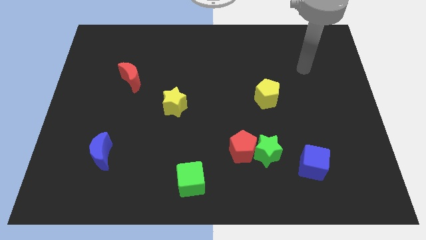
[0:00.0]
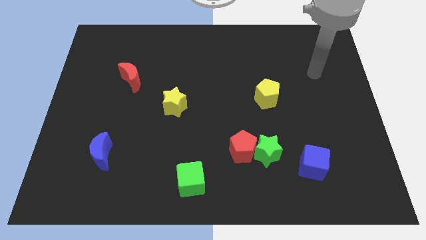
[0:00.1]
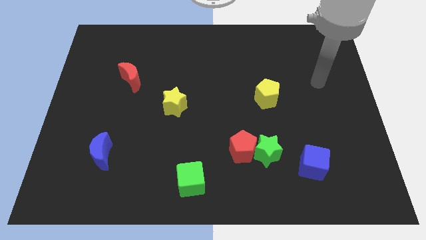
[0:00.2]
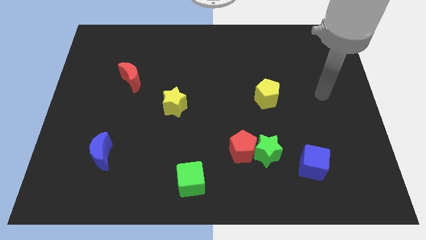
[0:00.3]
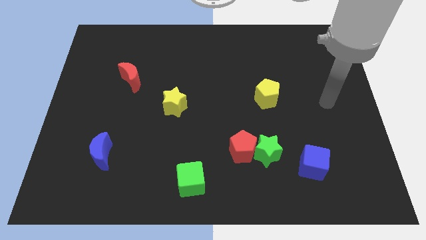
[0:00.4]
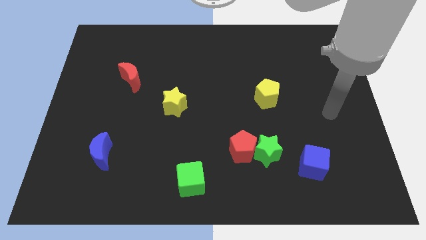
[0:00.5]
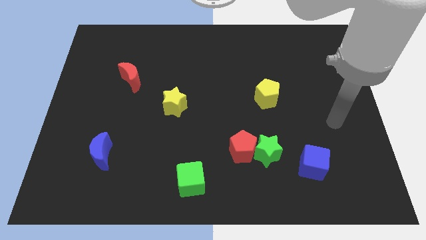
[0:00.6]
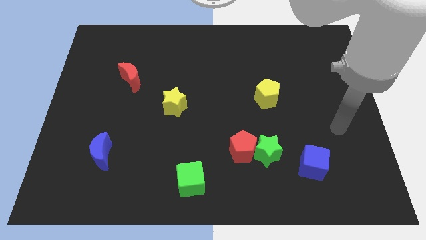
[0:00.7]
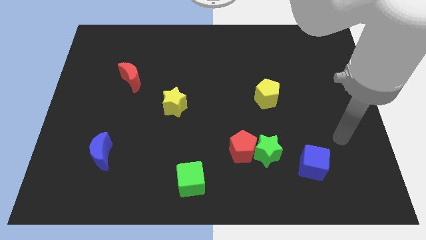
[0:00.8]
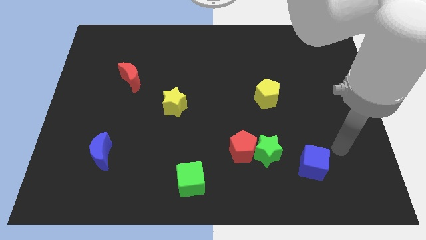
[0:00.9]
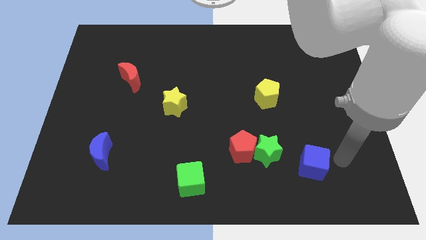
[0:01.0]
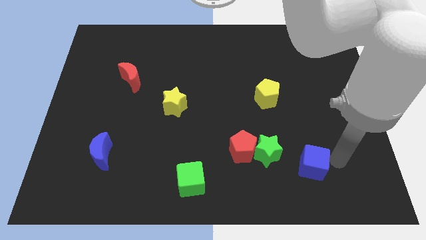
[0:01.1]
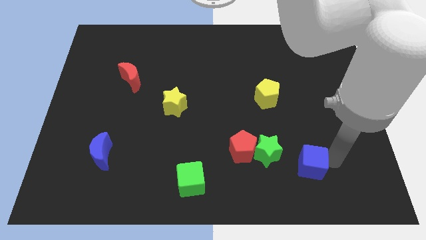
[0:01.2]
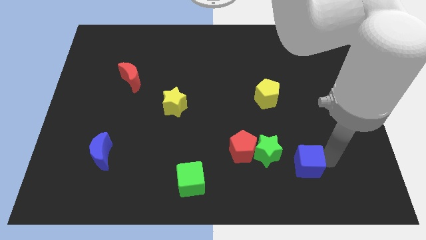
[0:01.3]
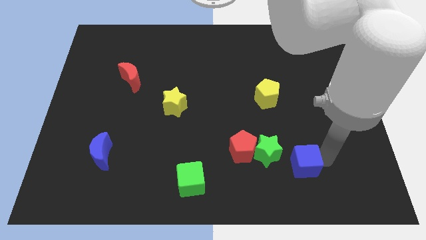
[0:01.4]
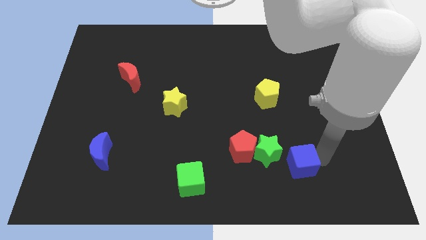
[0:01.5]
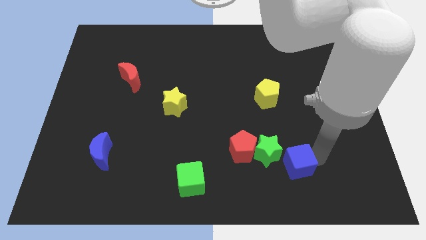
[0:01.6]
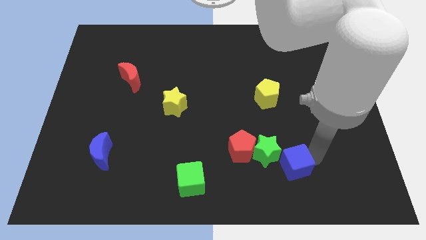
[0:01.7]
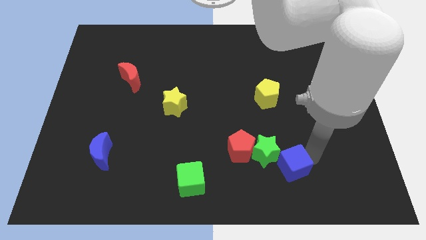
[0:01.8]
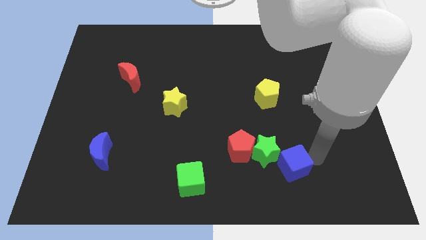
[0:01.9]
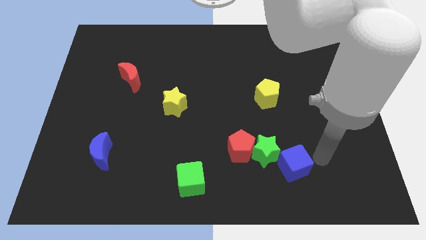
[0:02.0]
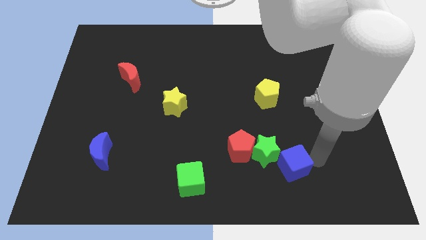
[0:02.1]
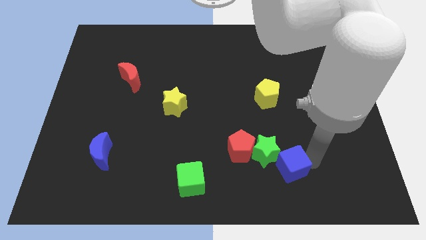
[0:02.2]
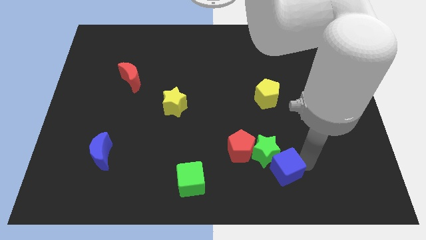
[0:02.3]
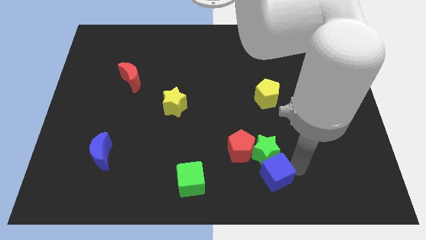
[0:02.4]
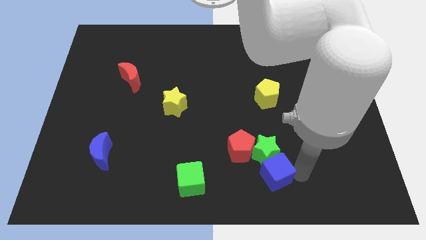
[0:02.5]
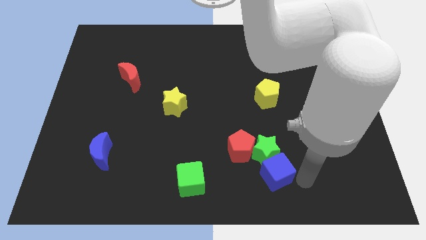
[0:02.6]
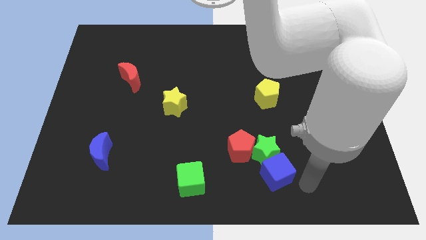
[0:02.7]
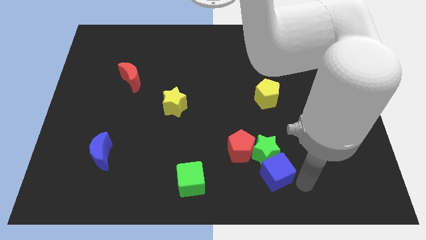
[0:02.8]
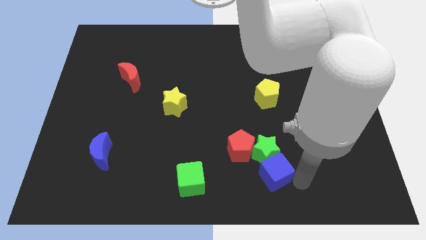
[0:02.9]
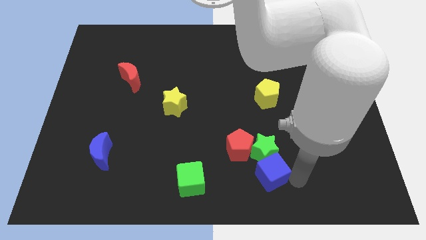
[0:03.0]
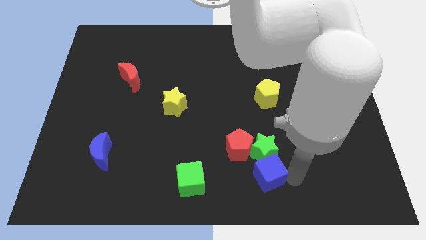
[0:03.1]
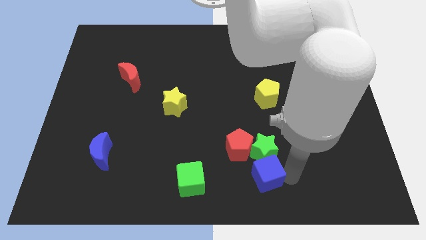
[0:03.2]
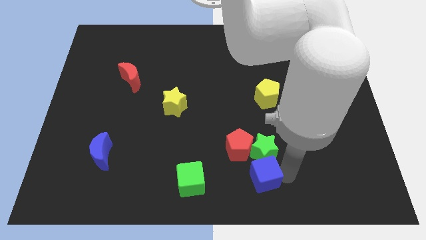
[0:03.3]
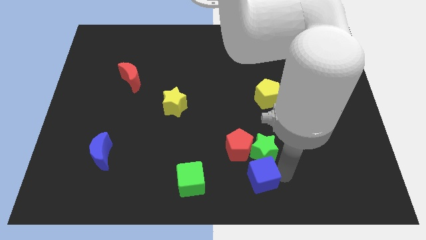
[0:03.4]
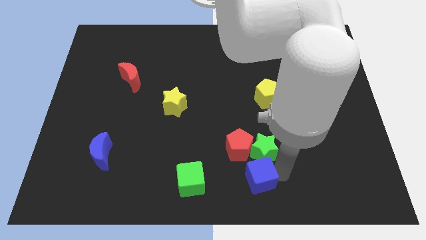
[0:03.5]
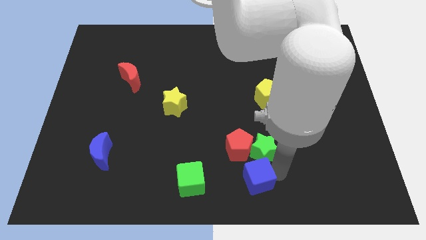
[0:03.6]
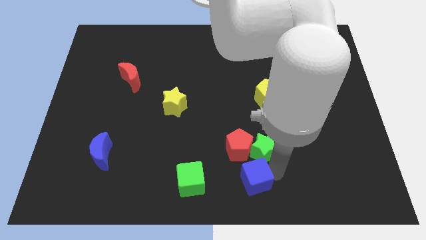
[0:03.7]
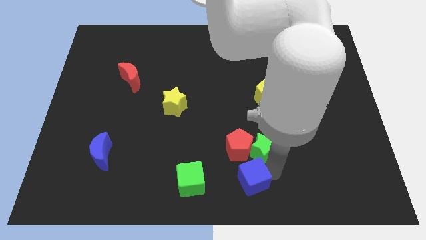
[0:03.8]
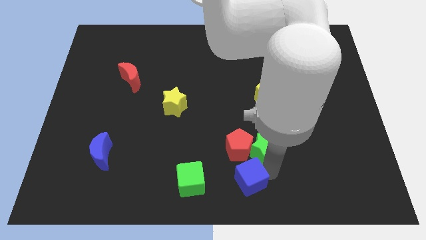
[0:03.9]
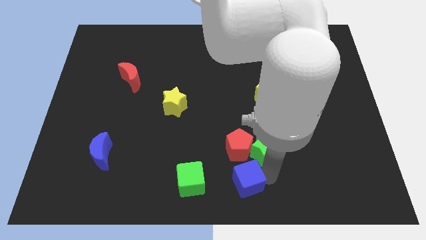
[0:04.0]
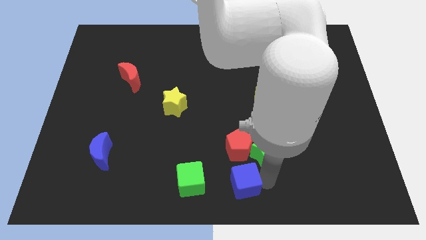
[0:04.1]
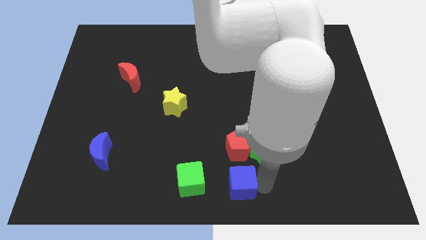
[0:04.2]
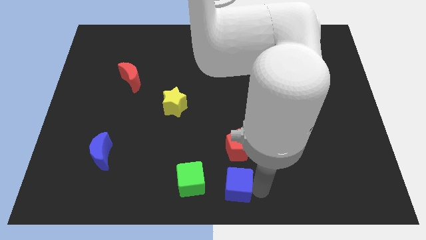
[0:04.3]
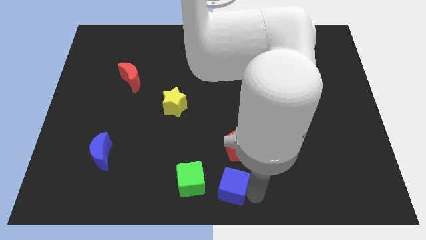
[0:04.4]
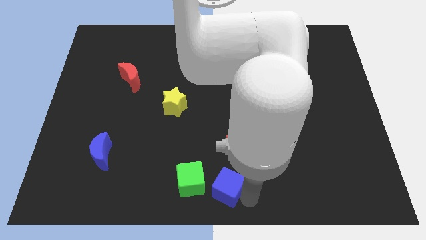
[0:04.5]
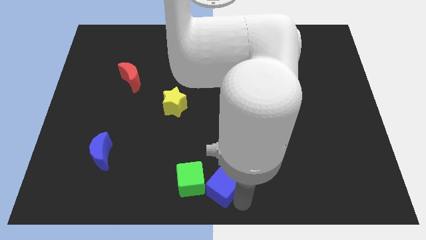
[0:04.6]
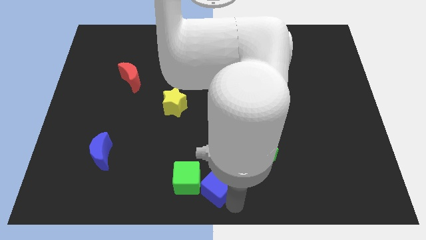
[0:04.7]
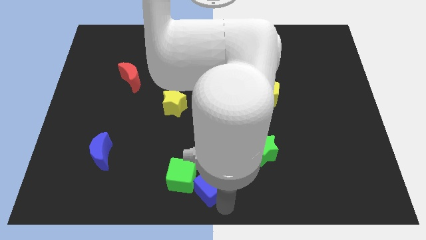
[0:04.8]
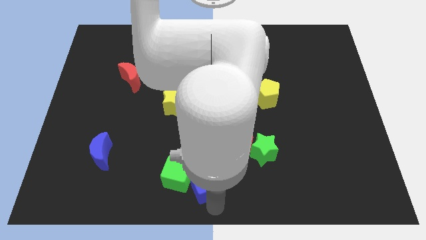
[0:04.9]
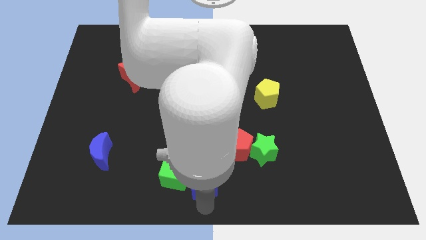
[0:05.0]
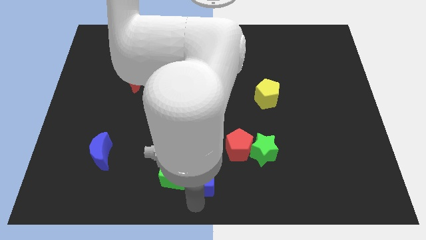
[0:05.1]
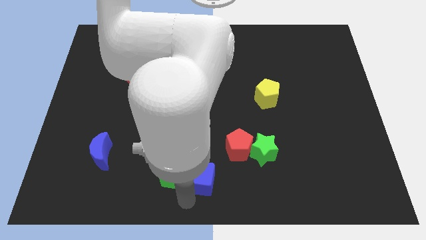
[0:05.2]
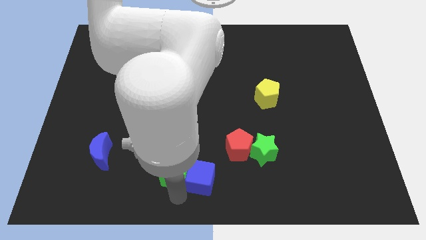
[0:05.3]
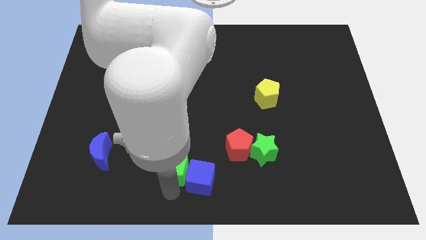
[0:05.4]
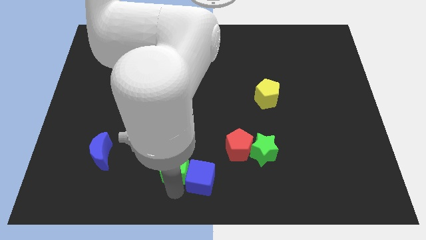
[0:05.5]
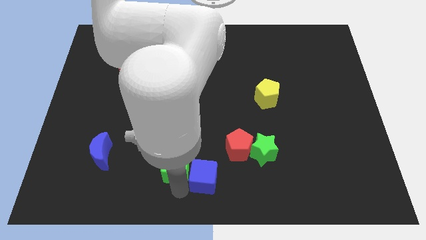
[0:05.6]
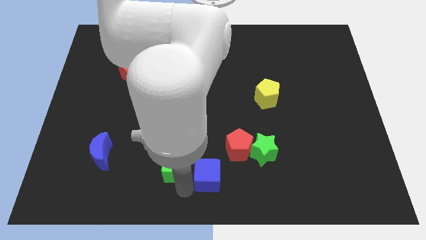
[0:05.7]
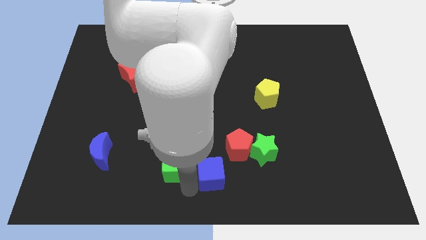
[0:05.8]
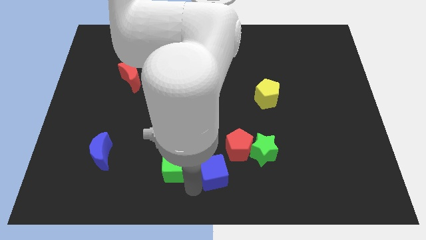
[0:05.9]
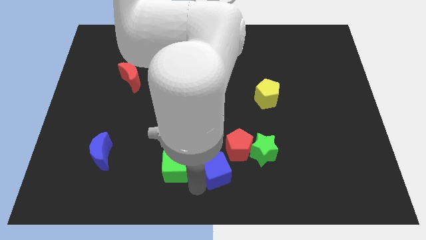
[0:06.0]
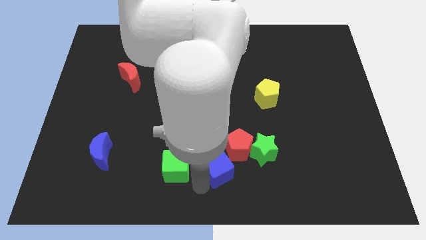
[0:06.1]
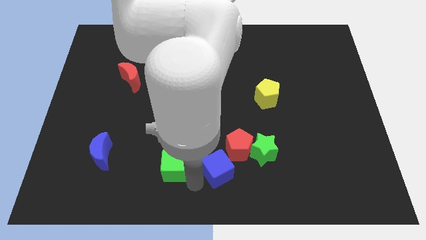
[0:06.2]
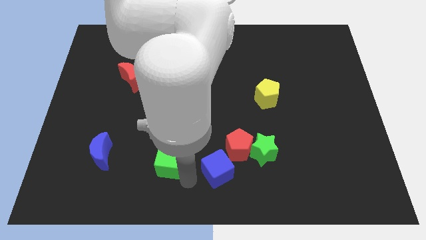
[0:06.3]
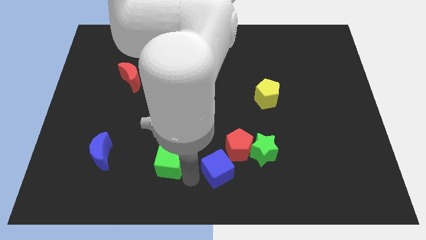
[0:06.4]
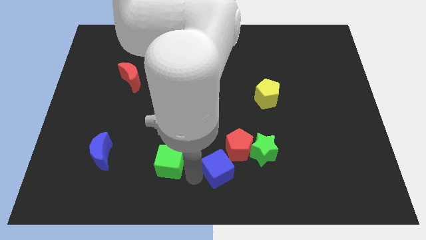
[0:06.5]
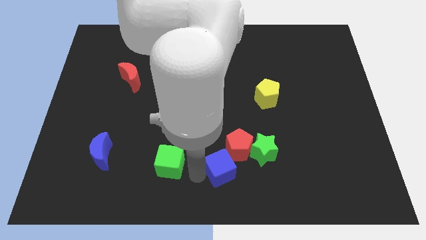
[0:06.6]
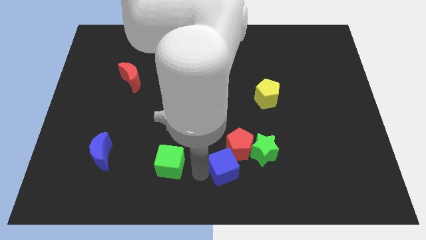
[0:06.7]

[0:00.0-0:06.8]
move the blue cube towards the red pentagon

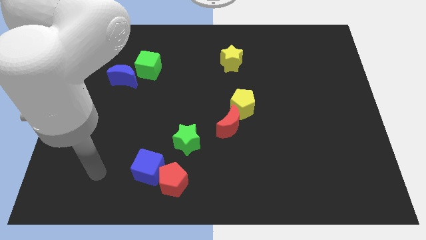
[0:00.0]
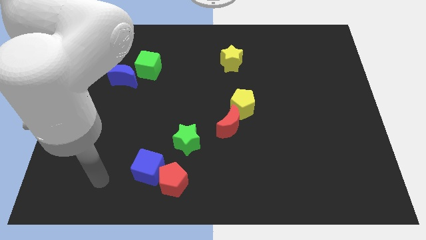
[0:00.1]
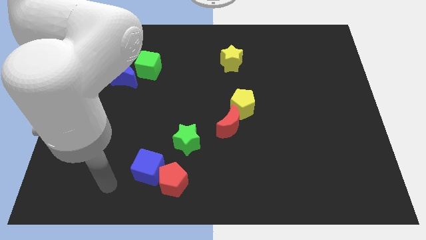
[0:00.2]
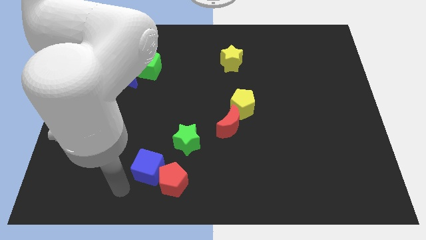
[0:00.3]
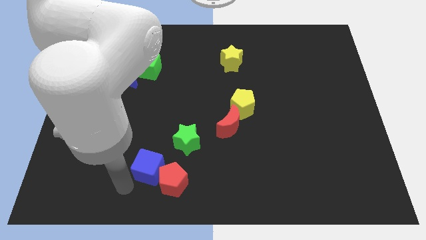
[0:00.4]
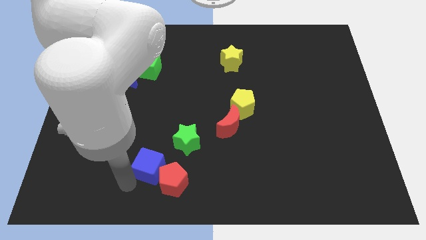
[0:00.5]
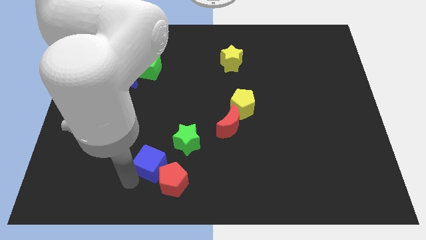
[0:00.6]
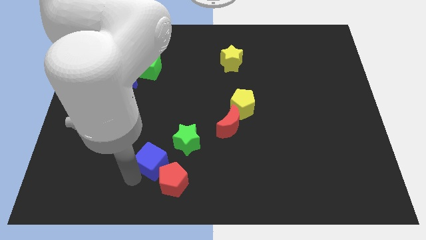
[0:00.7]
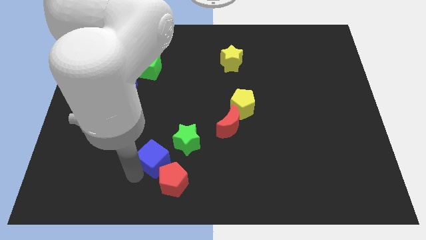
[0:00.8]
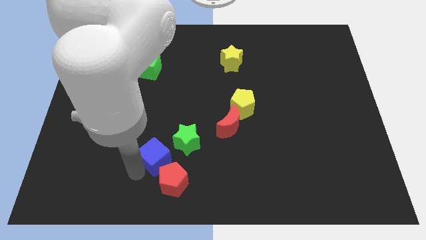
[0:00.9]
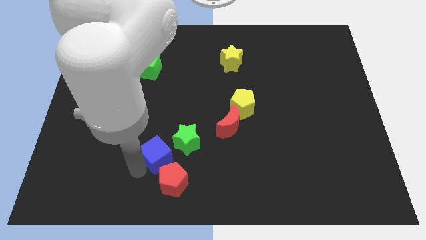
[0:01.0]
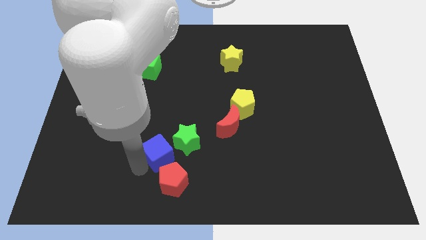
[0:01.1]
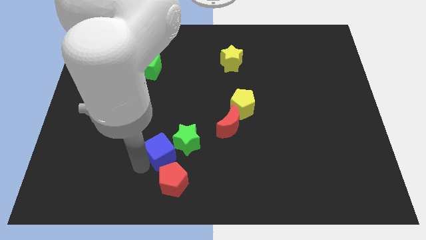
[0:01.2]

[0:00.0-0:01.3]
slide the blue cube next to the green star
